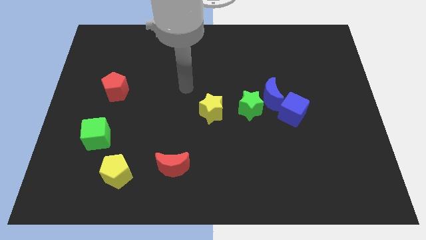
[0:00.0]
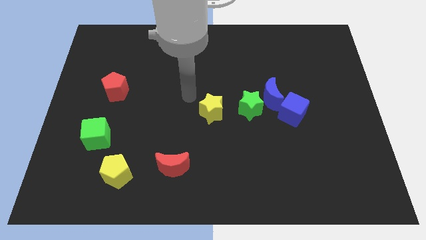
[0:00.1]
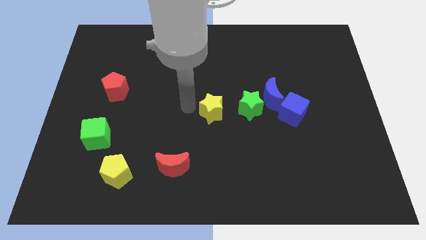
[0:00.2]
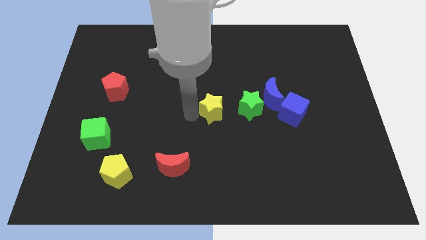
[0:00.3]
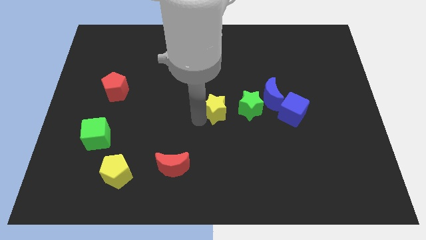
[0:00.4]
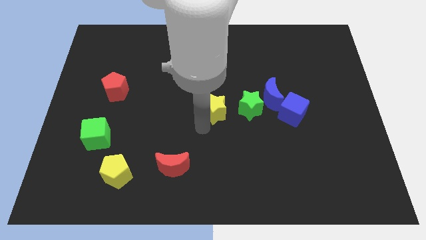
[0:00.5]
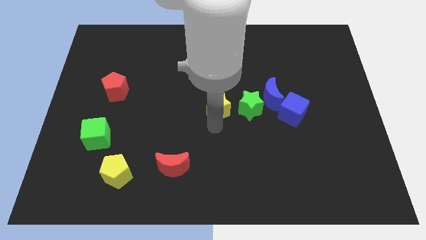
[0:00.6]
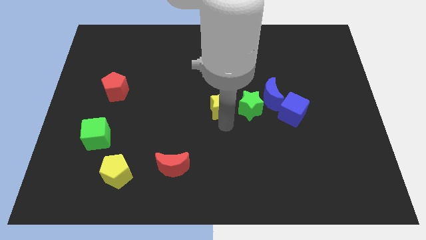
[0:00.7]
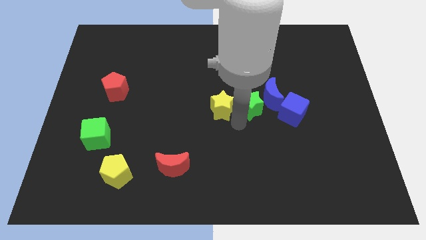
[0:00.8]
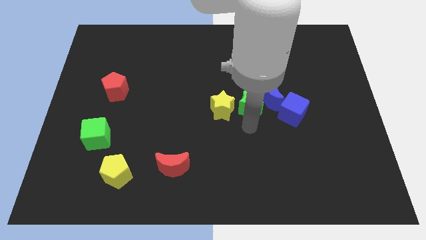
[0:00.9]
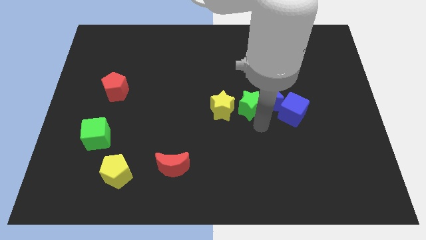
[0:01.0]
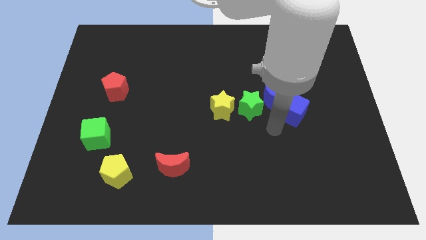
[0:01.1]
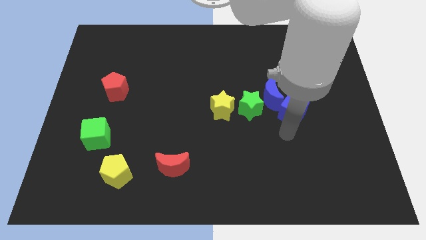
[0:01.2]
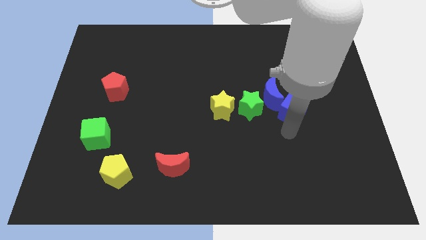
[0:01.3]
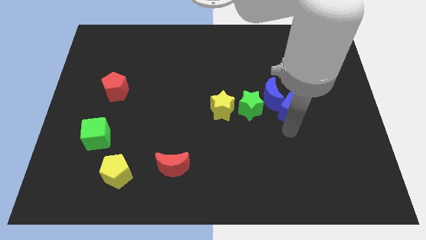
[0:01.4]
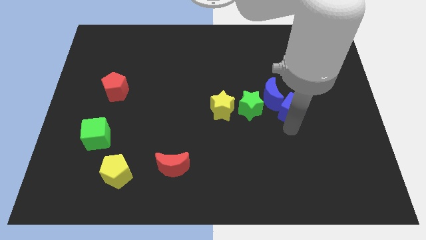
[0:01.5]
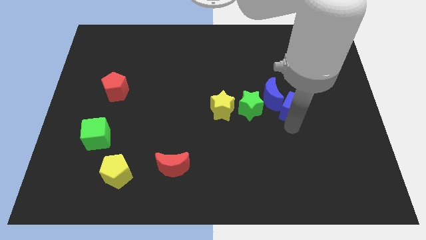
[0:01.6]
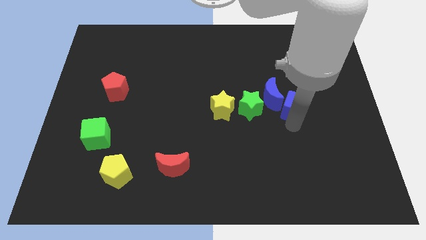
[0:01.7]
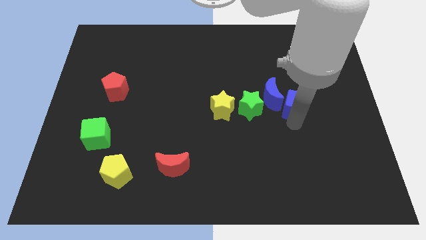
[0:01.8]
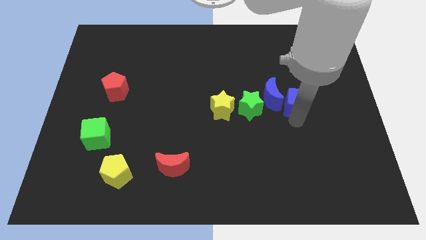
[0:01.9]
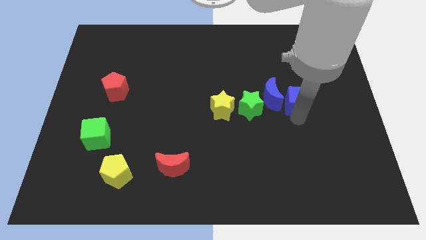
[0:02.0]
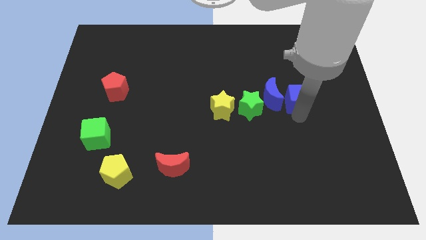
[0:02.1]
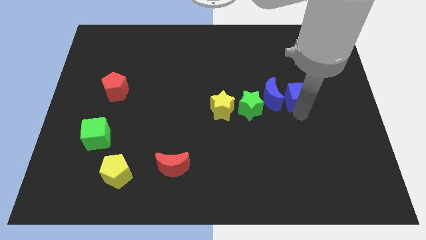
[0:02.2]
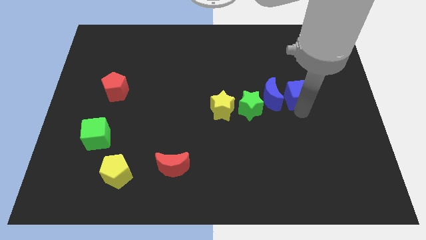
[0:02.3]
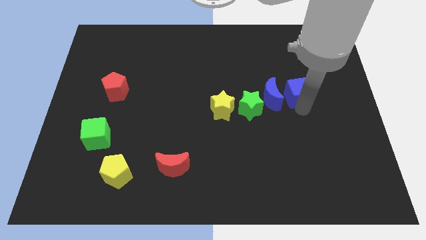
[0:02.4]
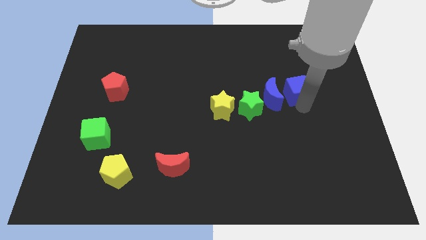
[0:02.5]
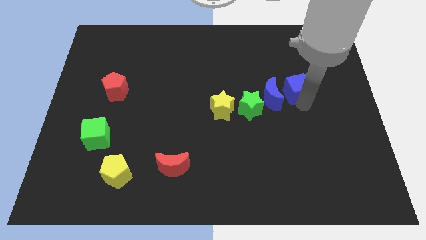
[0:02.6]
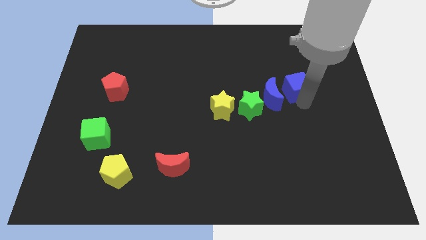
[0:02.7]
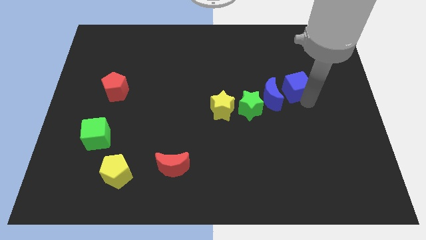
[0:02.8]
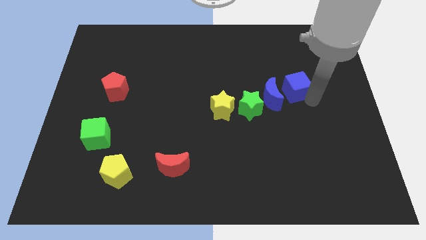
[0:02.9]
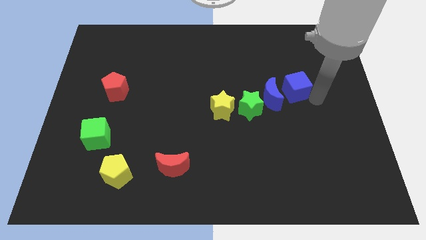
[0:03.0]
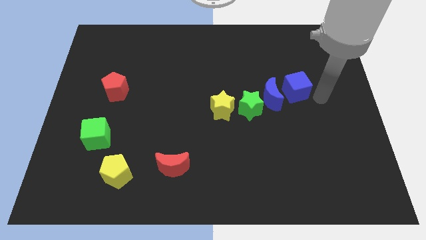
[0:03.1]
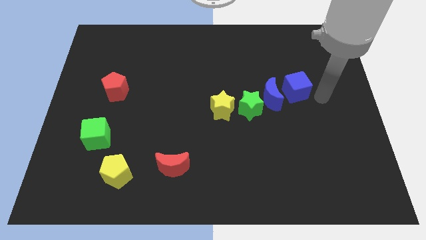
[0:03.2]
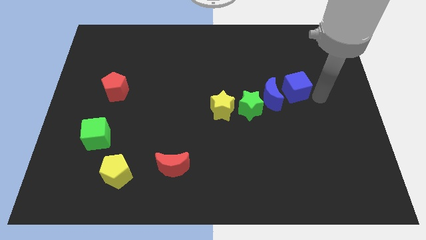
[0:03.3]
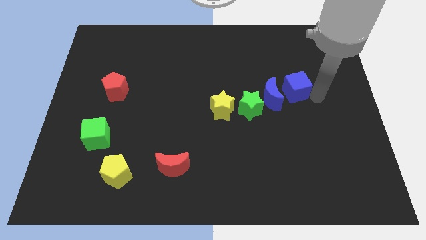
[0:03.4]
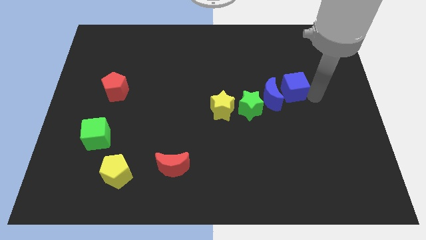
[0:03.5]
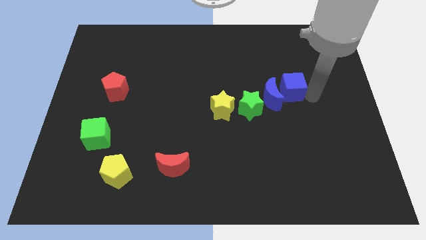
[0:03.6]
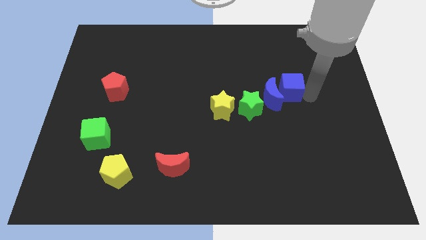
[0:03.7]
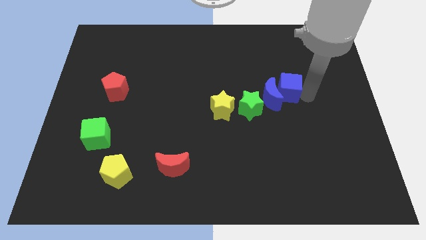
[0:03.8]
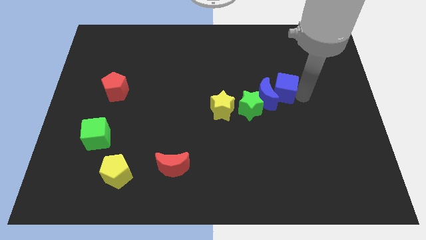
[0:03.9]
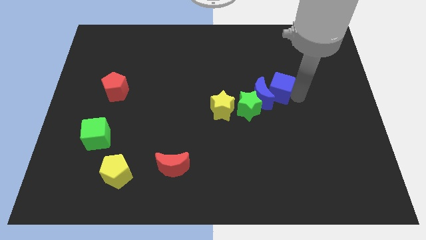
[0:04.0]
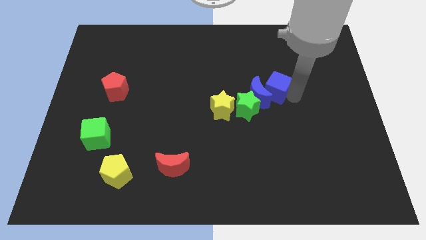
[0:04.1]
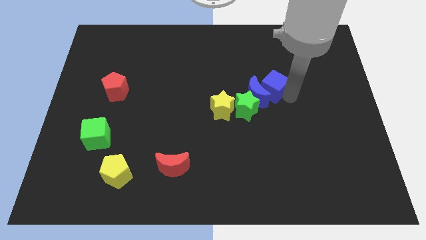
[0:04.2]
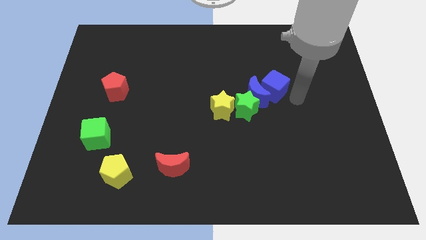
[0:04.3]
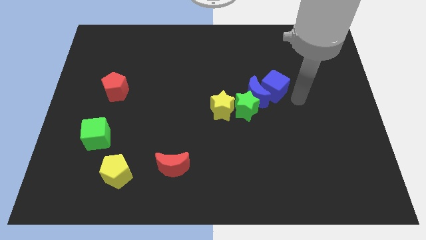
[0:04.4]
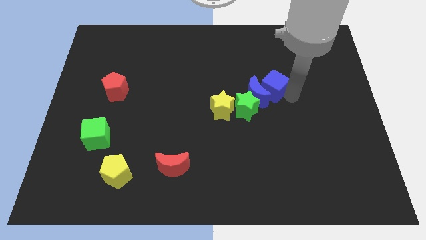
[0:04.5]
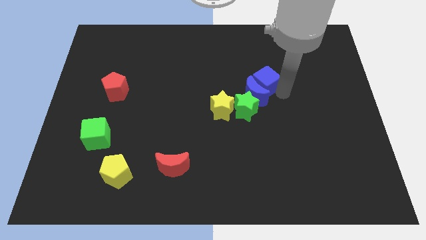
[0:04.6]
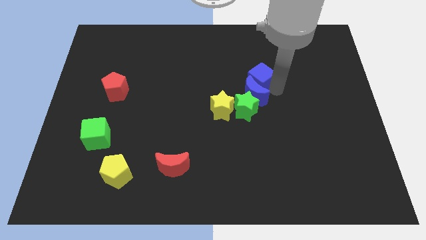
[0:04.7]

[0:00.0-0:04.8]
push the blue cube above the green star

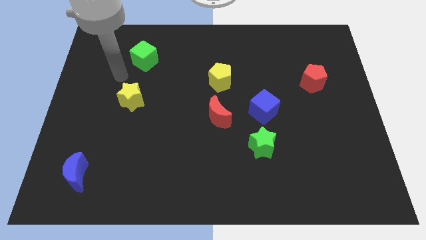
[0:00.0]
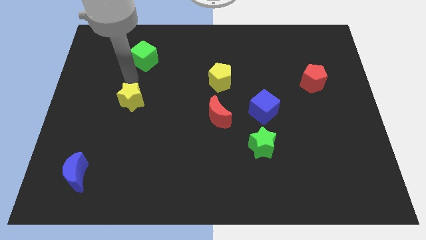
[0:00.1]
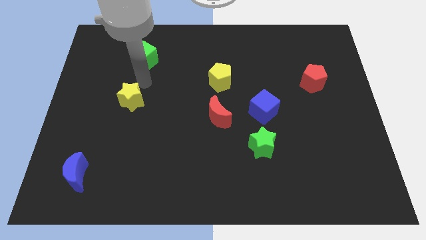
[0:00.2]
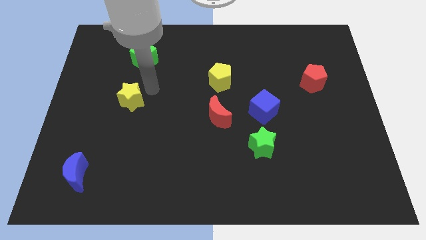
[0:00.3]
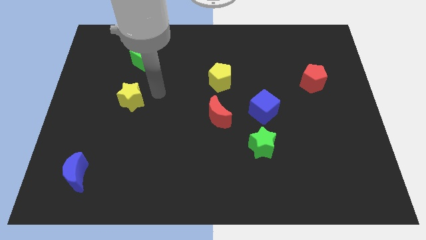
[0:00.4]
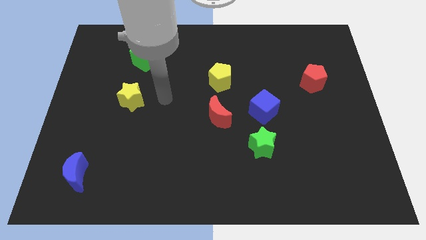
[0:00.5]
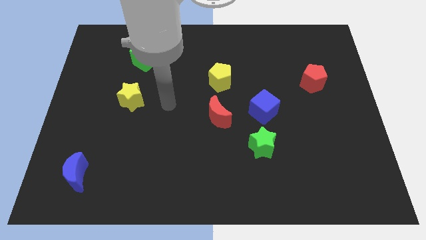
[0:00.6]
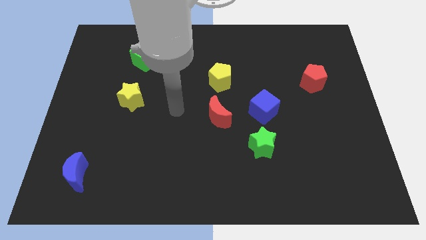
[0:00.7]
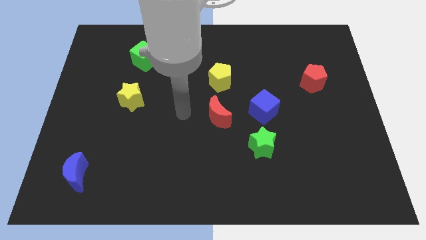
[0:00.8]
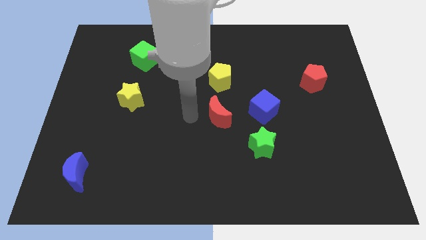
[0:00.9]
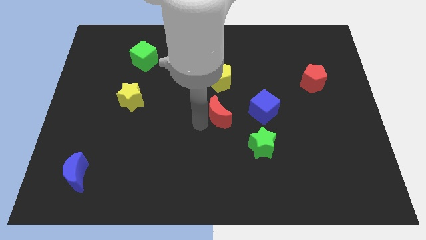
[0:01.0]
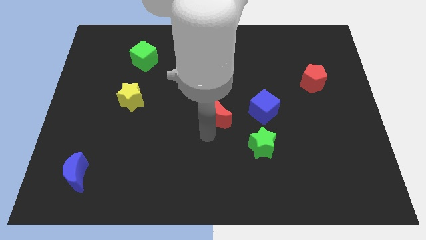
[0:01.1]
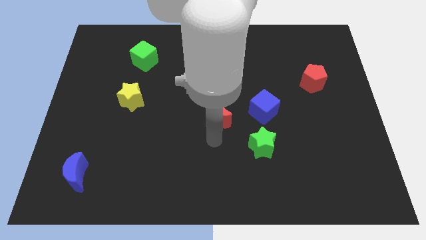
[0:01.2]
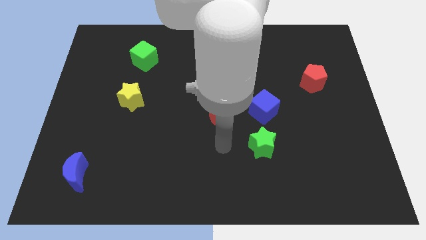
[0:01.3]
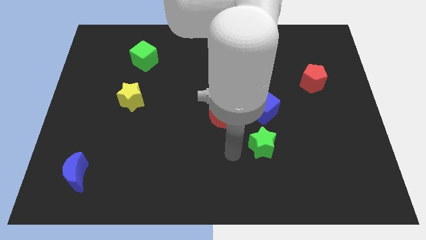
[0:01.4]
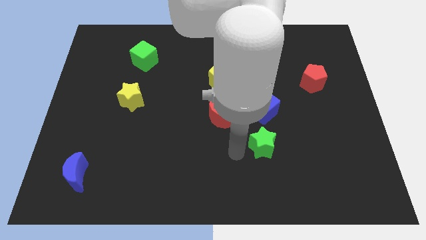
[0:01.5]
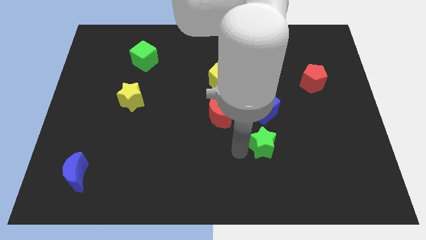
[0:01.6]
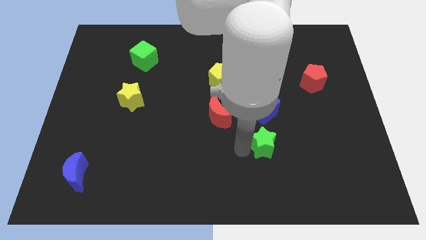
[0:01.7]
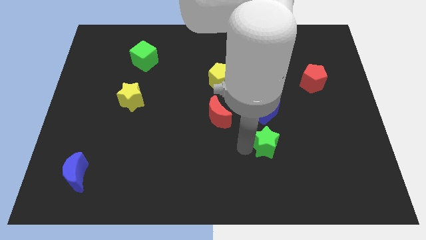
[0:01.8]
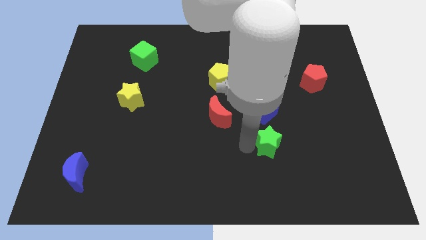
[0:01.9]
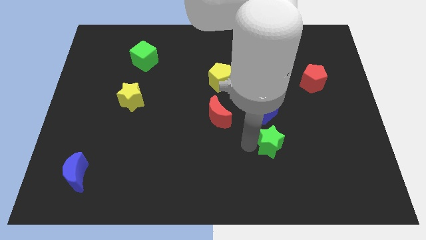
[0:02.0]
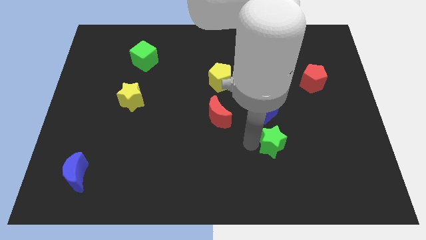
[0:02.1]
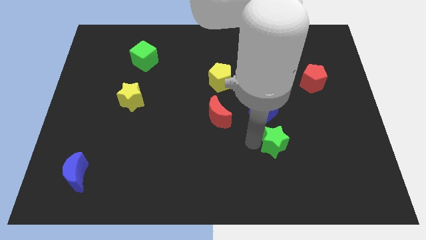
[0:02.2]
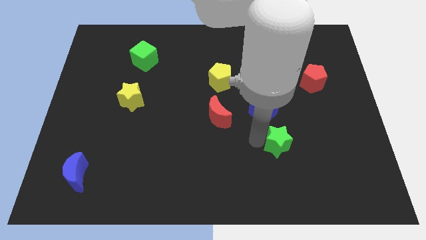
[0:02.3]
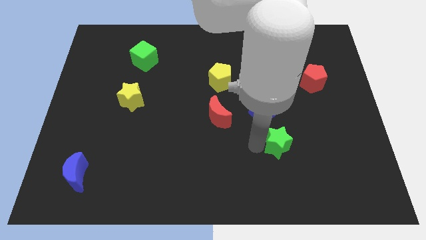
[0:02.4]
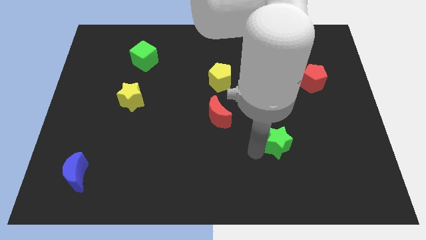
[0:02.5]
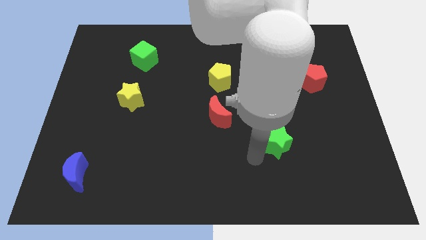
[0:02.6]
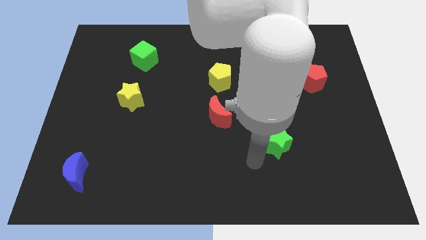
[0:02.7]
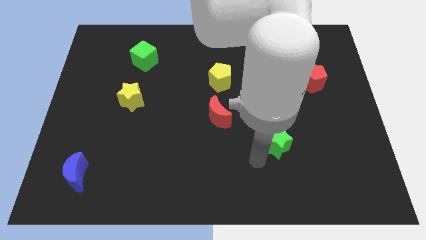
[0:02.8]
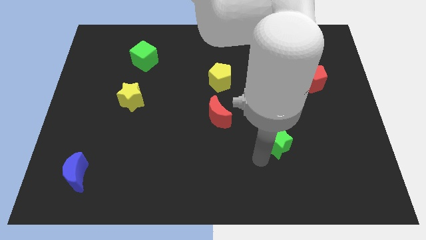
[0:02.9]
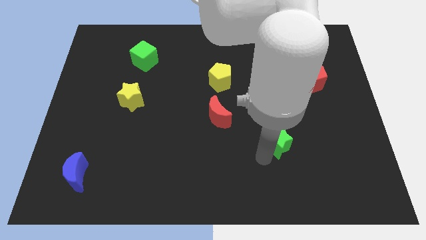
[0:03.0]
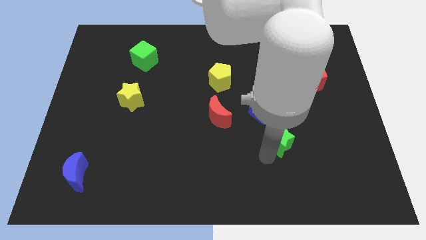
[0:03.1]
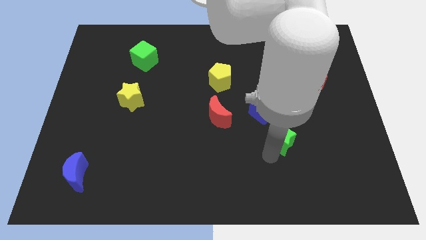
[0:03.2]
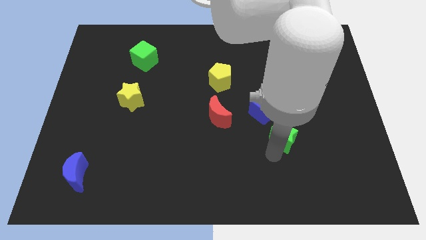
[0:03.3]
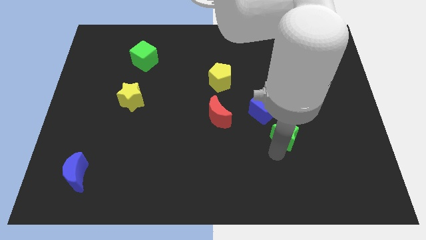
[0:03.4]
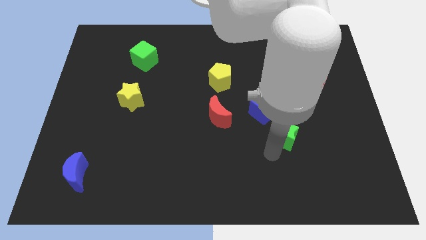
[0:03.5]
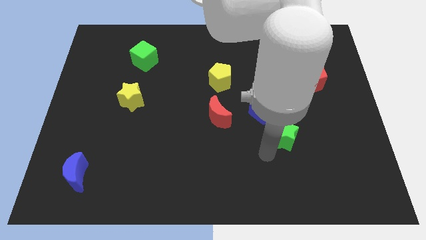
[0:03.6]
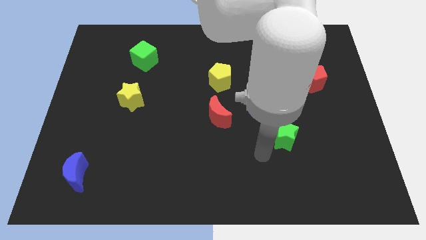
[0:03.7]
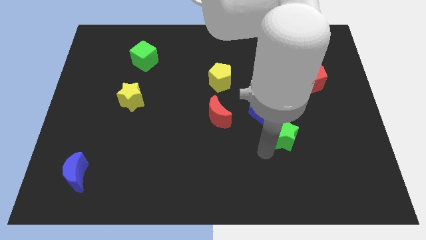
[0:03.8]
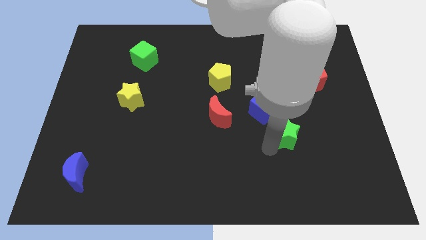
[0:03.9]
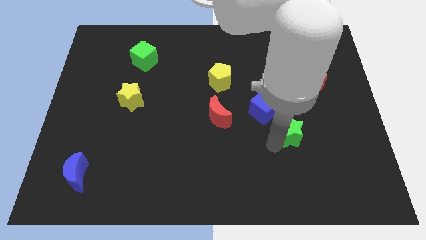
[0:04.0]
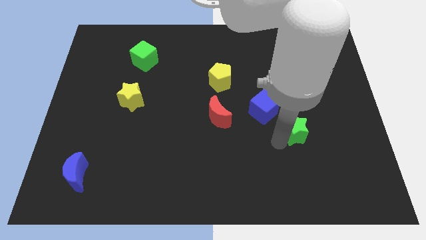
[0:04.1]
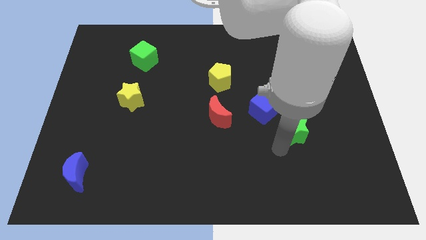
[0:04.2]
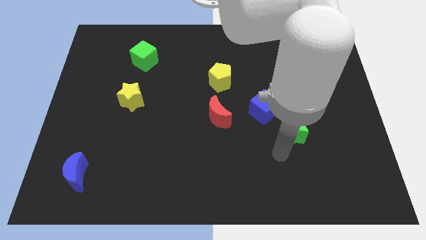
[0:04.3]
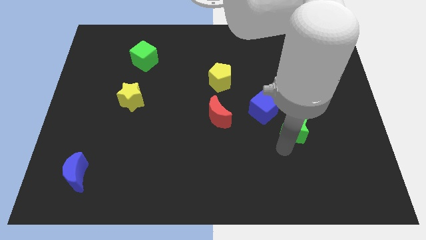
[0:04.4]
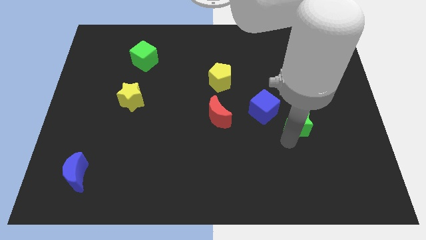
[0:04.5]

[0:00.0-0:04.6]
push the green star to the right side of the blue cube
